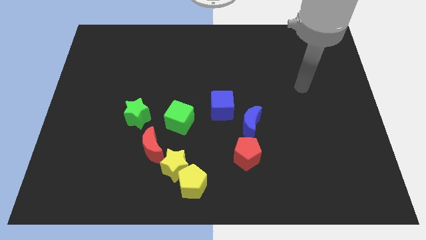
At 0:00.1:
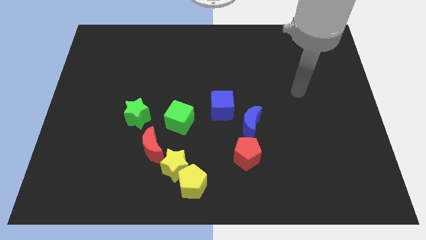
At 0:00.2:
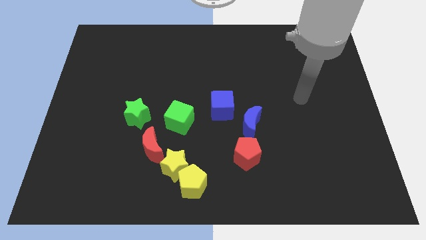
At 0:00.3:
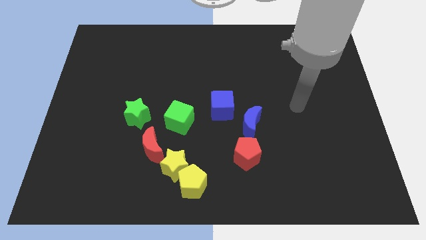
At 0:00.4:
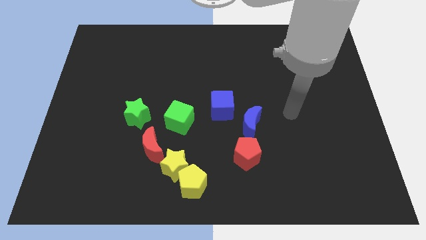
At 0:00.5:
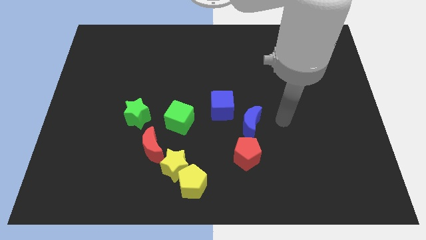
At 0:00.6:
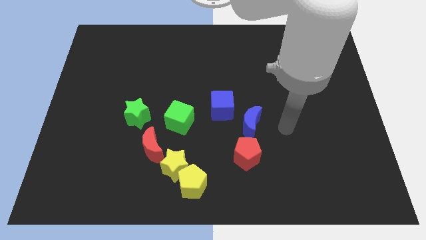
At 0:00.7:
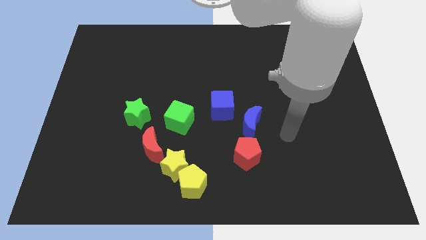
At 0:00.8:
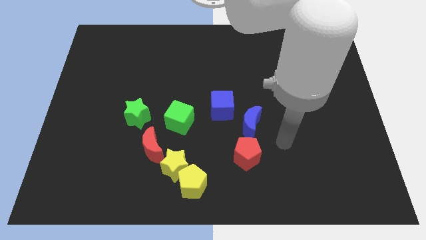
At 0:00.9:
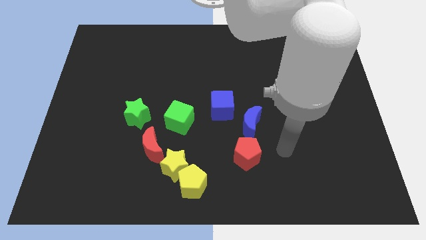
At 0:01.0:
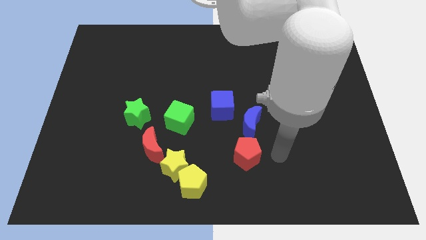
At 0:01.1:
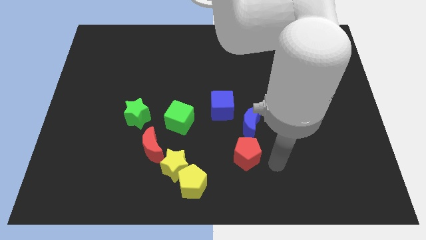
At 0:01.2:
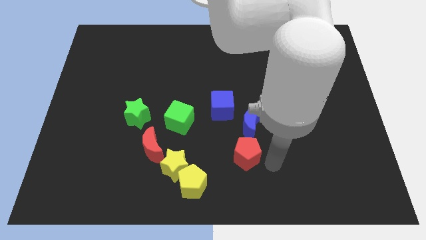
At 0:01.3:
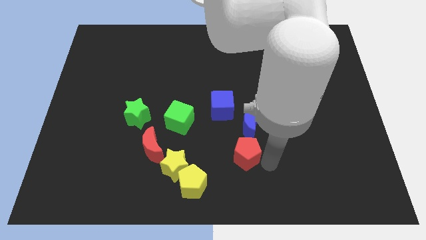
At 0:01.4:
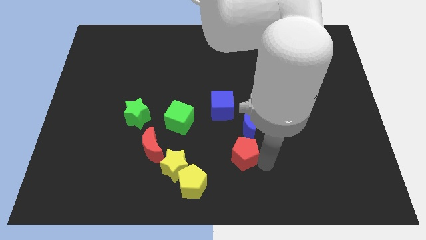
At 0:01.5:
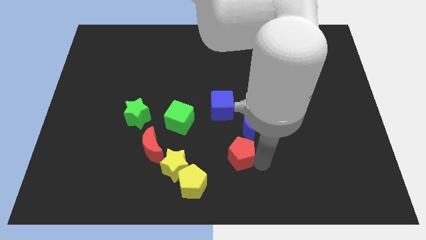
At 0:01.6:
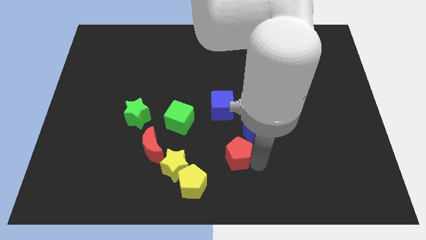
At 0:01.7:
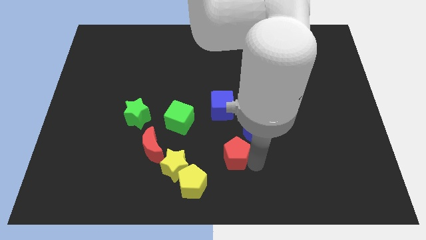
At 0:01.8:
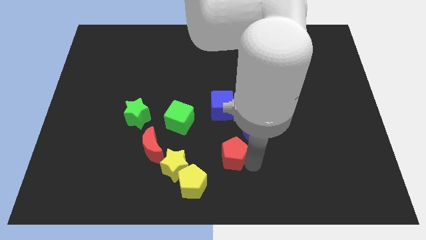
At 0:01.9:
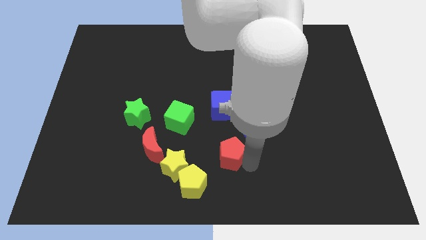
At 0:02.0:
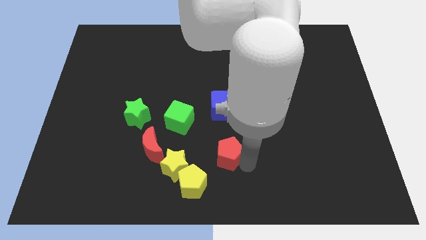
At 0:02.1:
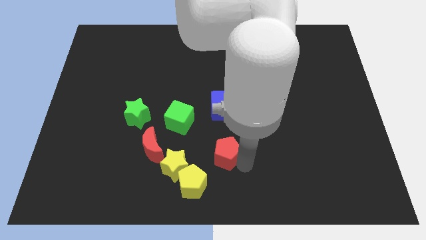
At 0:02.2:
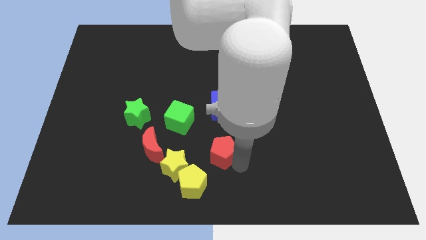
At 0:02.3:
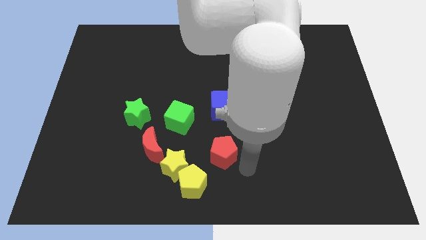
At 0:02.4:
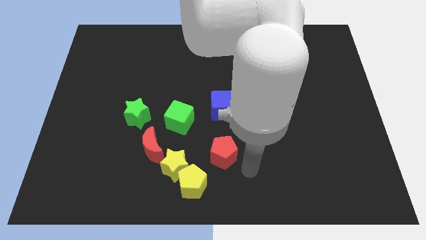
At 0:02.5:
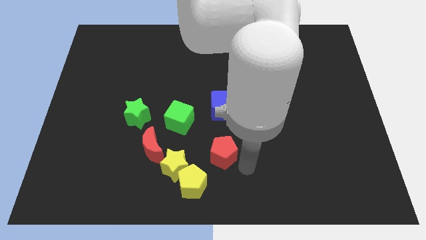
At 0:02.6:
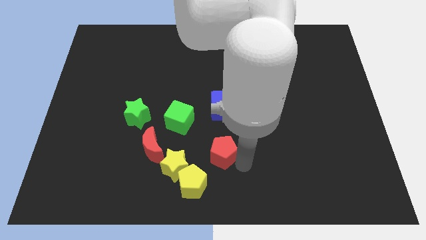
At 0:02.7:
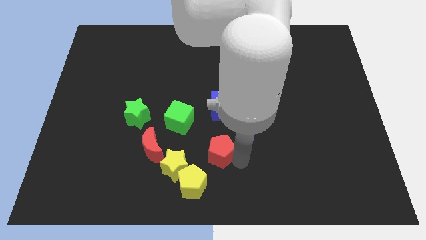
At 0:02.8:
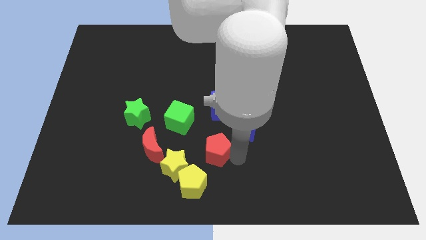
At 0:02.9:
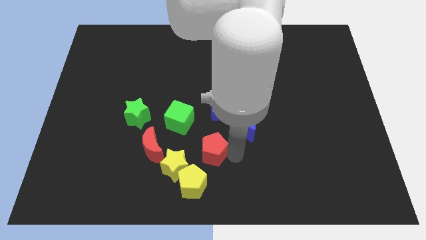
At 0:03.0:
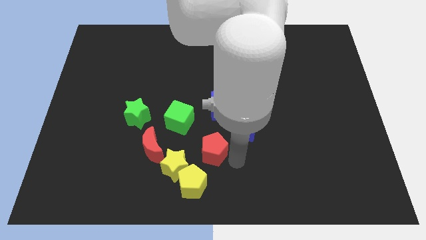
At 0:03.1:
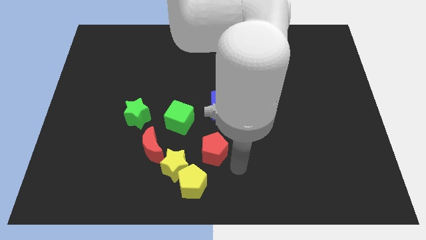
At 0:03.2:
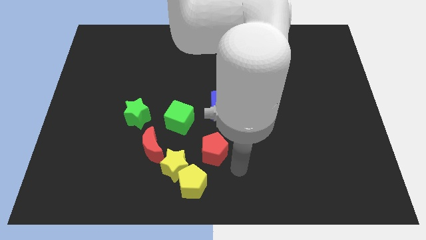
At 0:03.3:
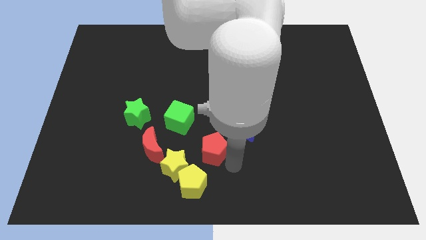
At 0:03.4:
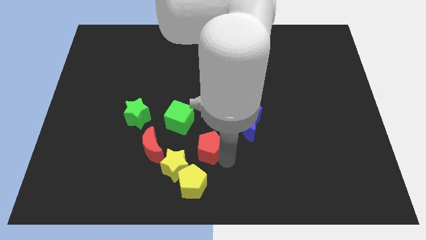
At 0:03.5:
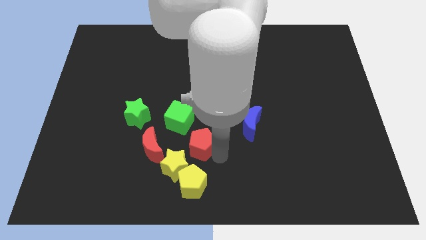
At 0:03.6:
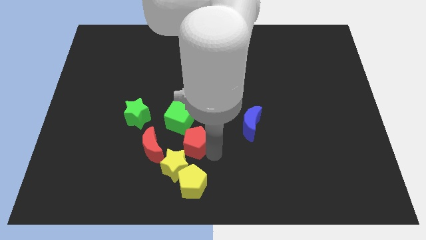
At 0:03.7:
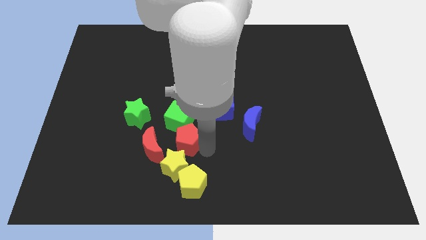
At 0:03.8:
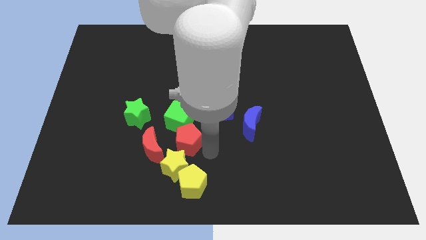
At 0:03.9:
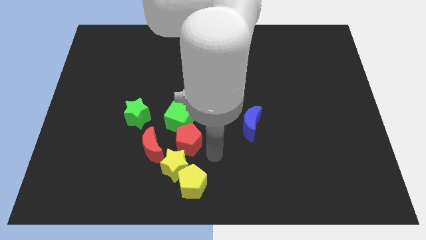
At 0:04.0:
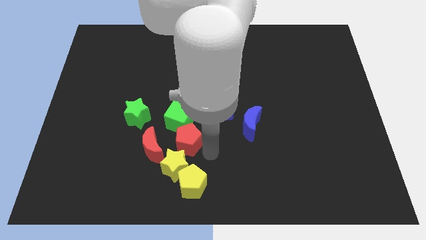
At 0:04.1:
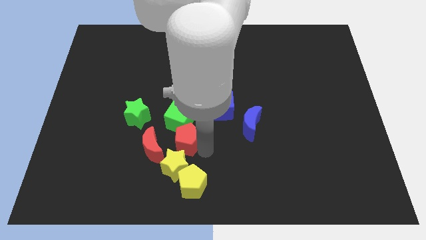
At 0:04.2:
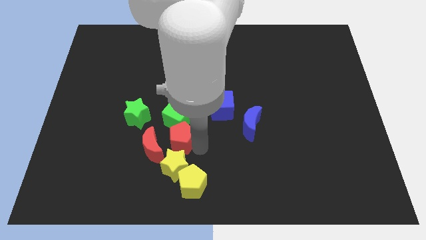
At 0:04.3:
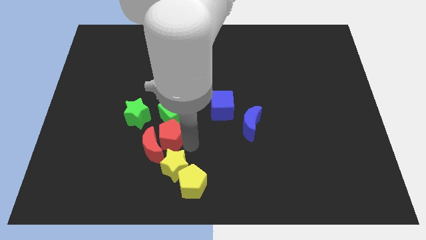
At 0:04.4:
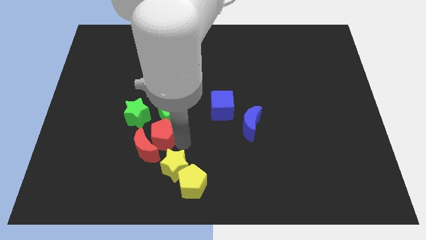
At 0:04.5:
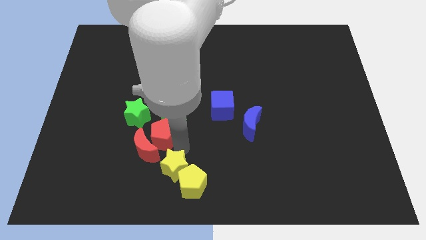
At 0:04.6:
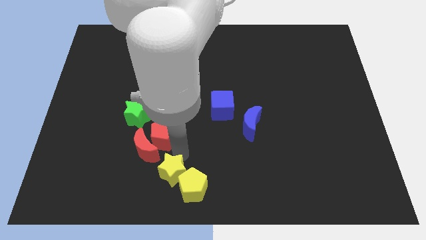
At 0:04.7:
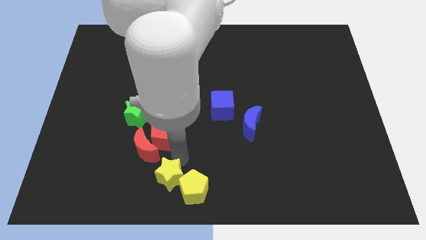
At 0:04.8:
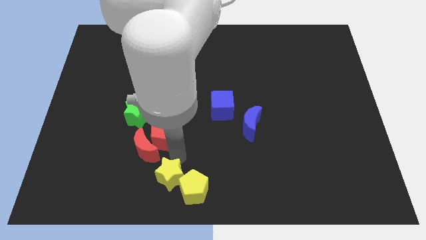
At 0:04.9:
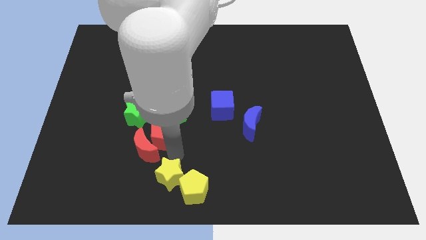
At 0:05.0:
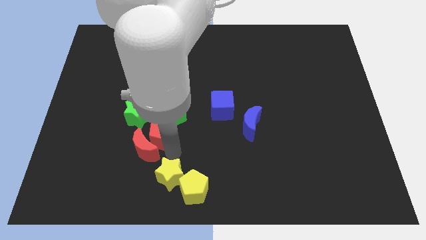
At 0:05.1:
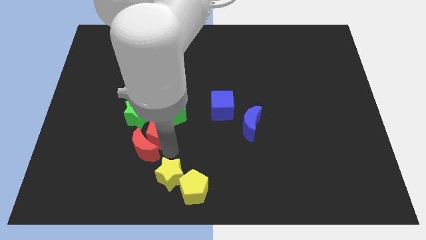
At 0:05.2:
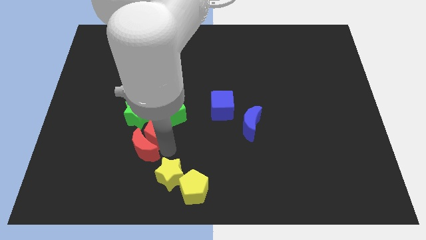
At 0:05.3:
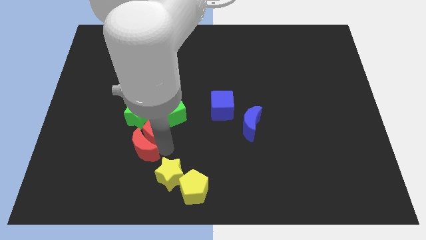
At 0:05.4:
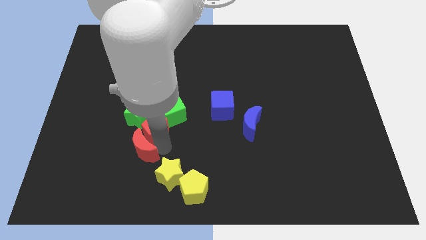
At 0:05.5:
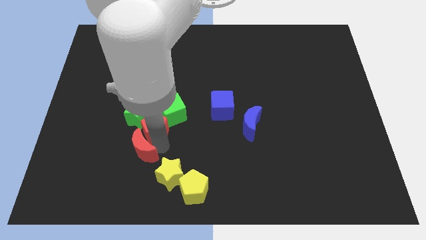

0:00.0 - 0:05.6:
slide the red pentagon next to the green star

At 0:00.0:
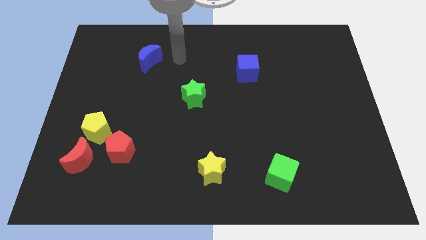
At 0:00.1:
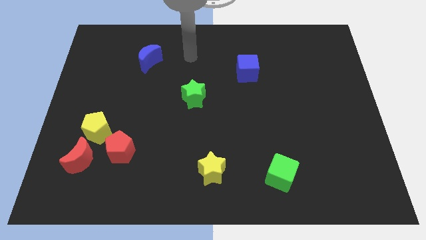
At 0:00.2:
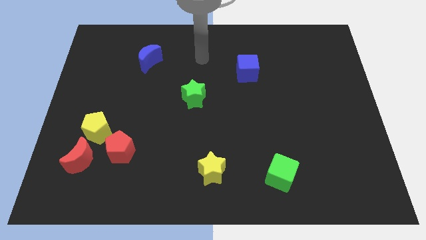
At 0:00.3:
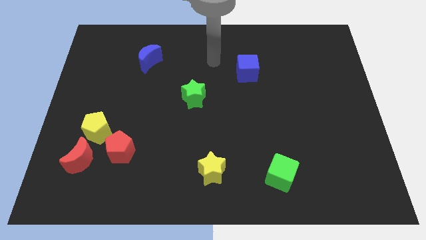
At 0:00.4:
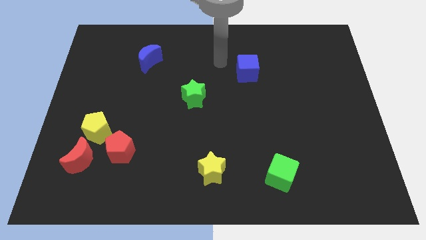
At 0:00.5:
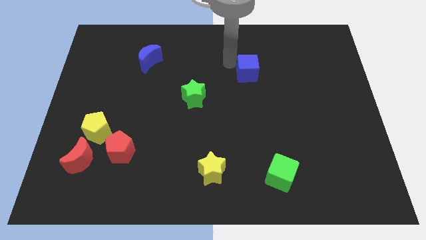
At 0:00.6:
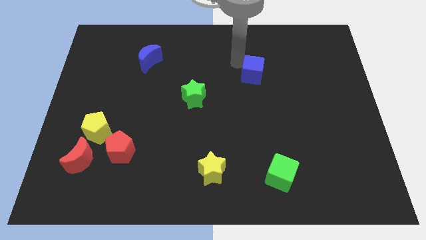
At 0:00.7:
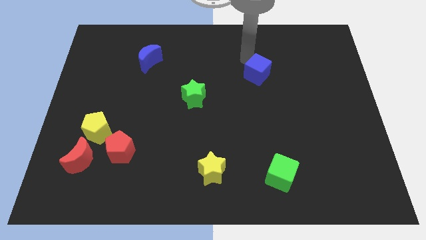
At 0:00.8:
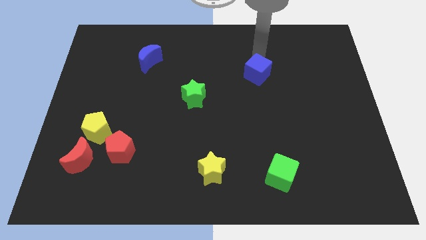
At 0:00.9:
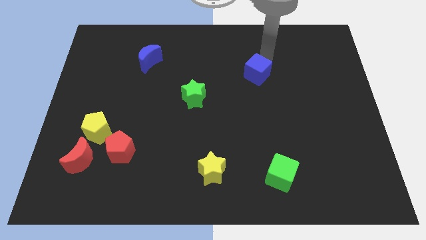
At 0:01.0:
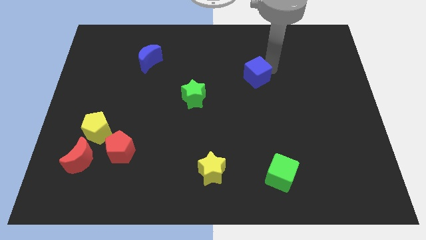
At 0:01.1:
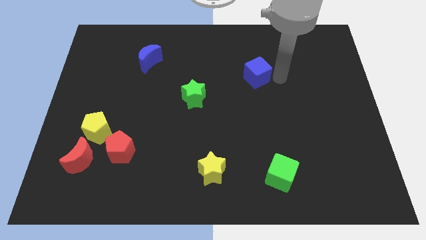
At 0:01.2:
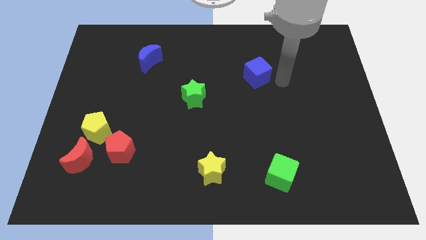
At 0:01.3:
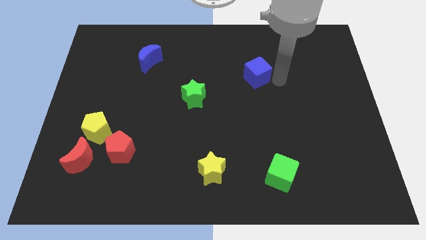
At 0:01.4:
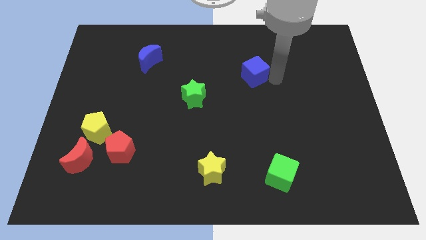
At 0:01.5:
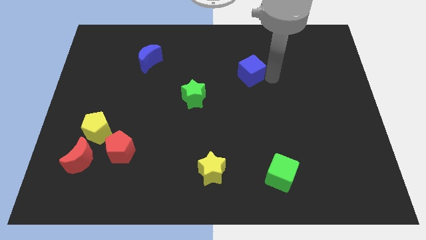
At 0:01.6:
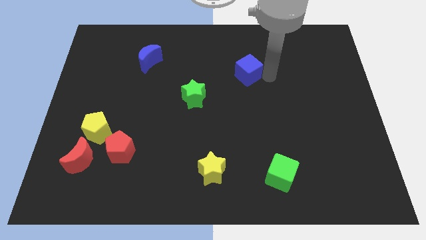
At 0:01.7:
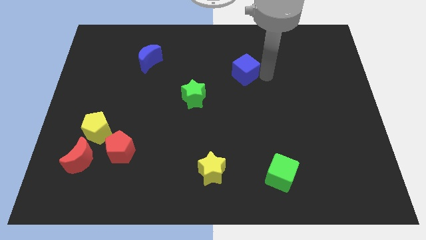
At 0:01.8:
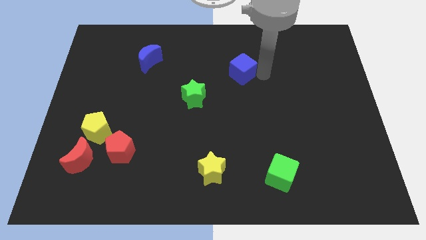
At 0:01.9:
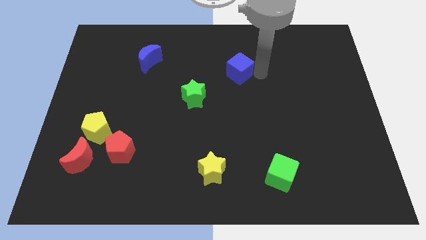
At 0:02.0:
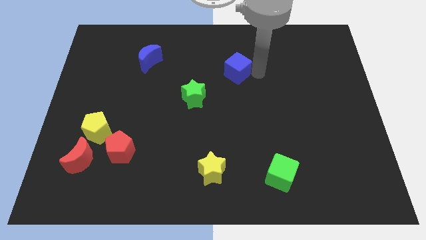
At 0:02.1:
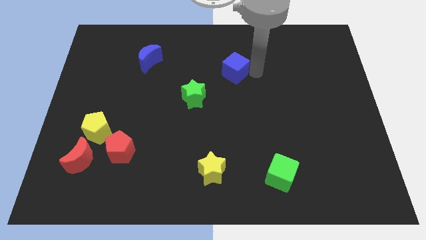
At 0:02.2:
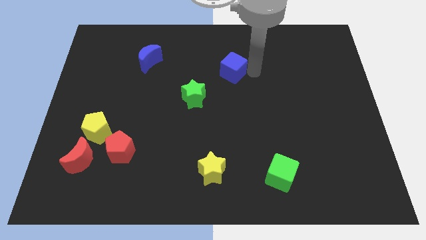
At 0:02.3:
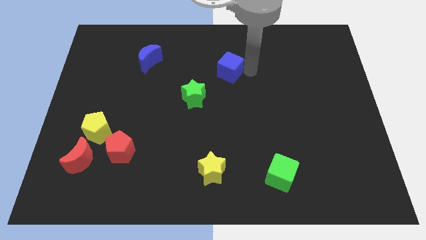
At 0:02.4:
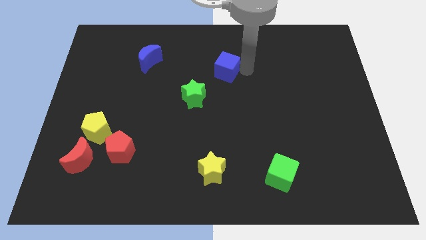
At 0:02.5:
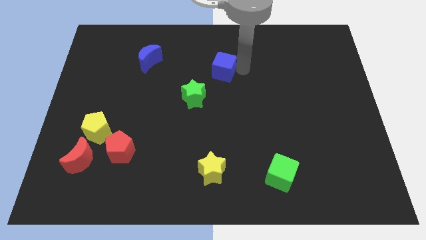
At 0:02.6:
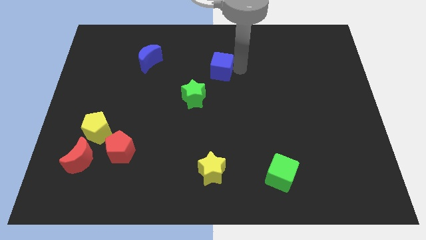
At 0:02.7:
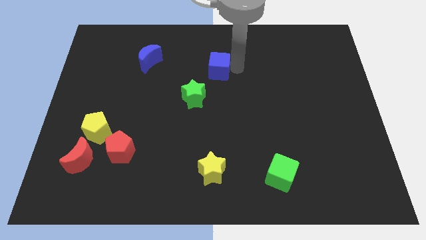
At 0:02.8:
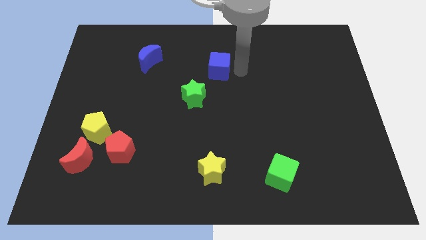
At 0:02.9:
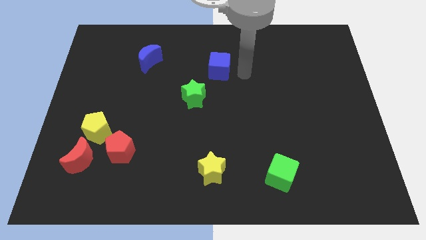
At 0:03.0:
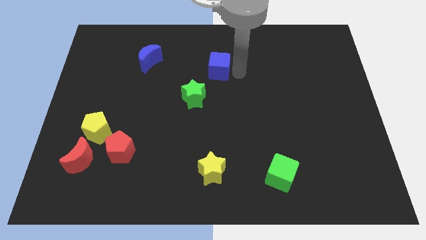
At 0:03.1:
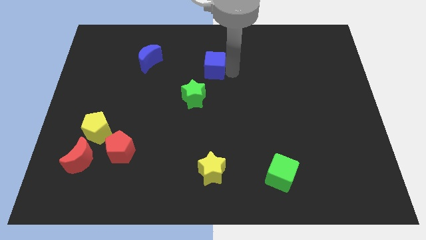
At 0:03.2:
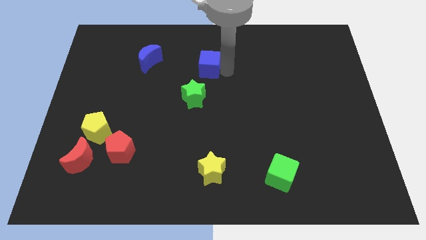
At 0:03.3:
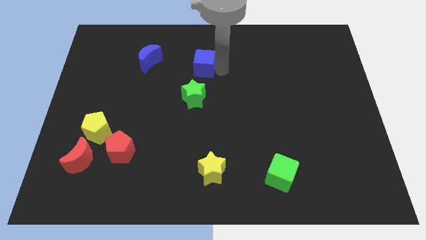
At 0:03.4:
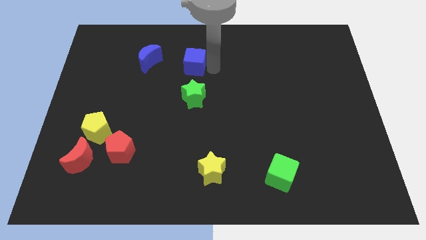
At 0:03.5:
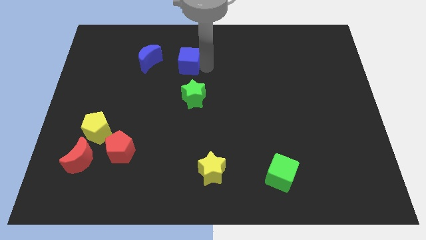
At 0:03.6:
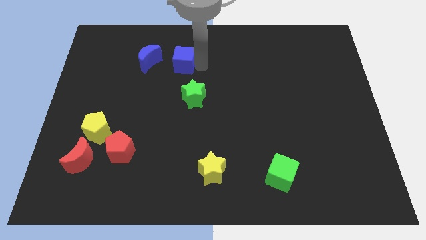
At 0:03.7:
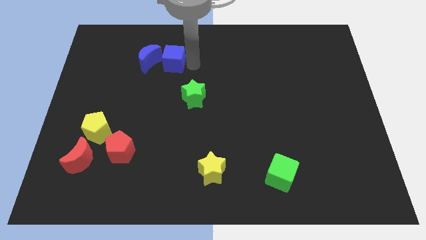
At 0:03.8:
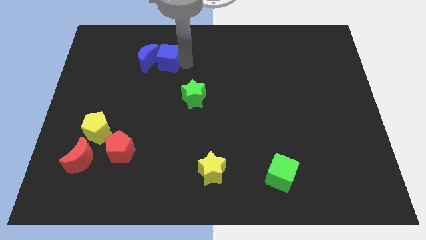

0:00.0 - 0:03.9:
push the blue cube towards the blue moon
